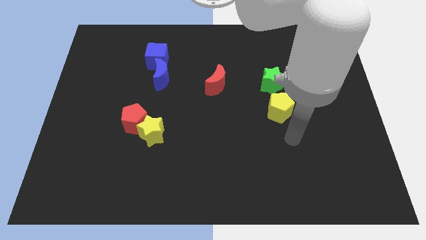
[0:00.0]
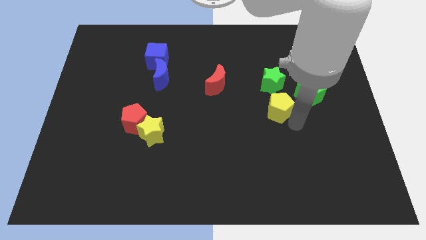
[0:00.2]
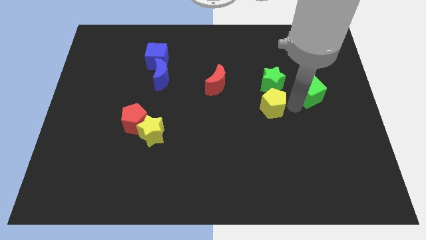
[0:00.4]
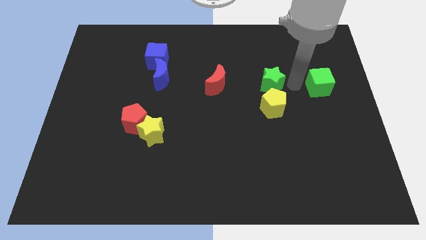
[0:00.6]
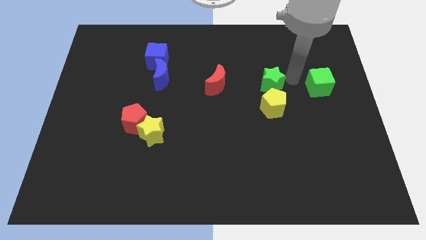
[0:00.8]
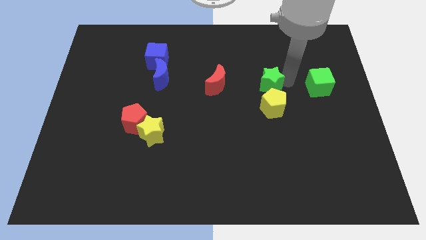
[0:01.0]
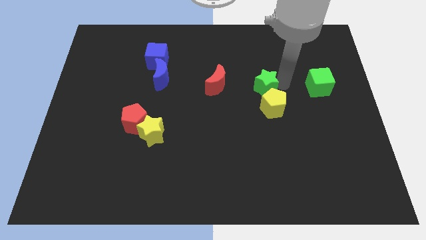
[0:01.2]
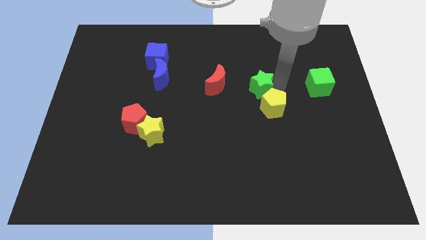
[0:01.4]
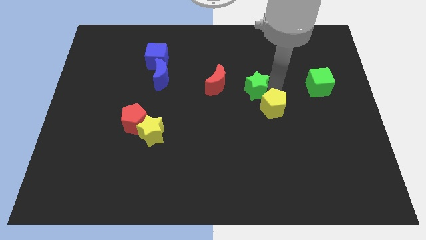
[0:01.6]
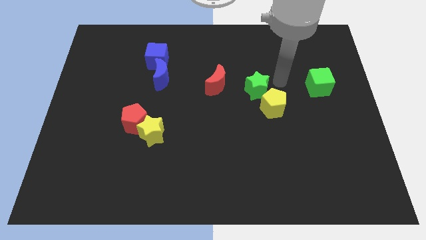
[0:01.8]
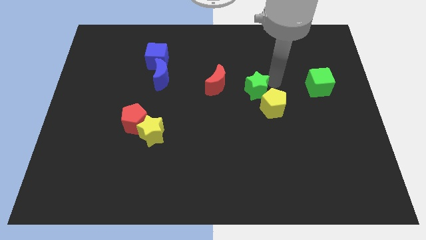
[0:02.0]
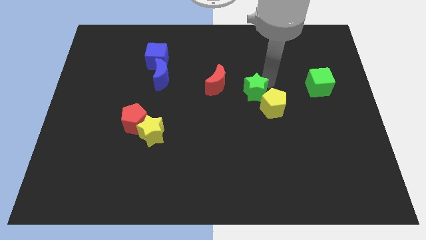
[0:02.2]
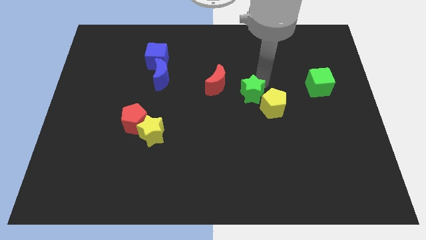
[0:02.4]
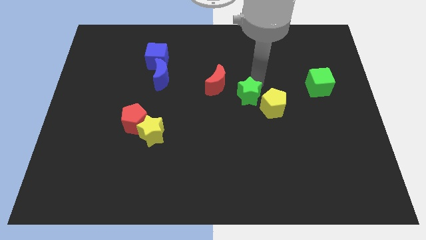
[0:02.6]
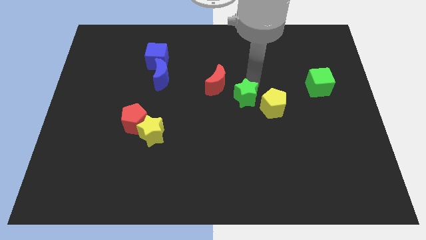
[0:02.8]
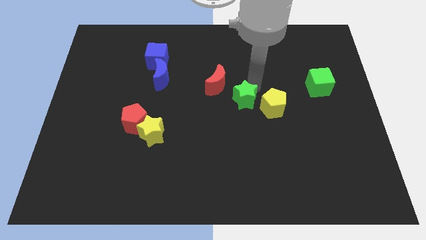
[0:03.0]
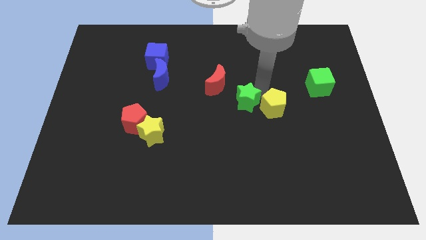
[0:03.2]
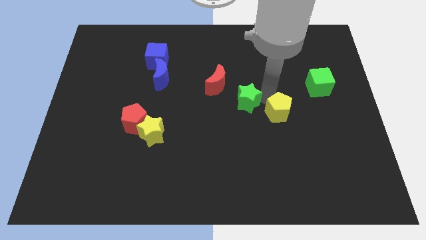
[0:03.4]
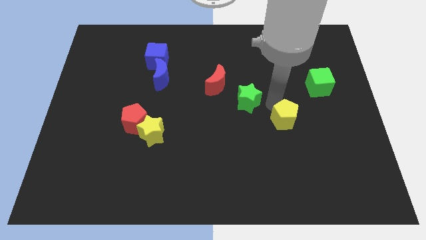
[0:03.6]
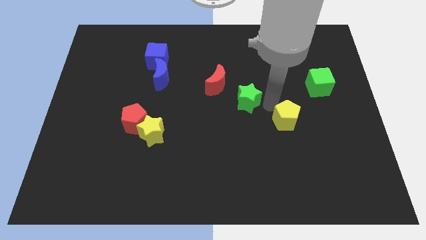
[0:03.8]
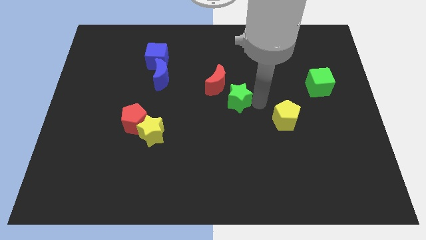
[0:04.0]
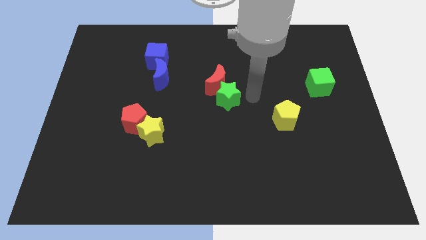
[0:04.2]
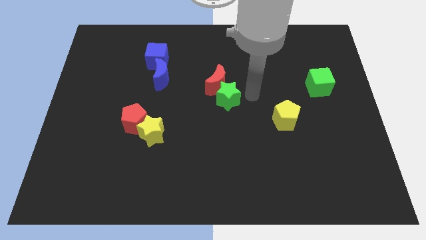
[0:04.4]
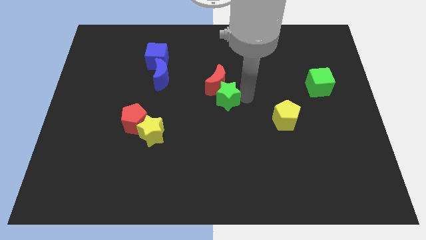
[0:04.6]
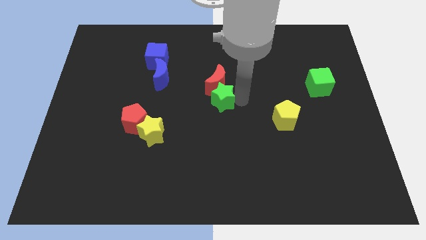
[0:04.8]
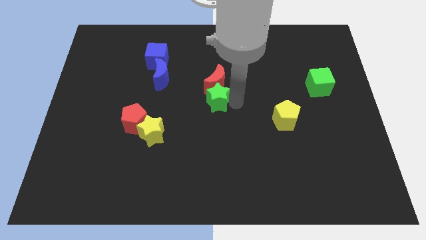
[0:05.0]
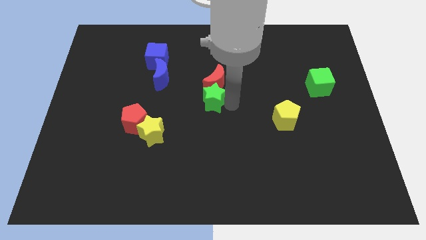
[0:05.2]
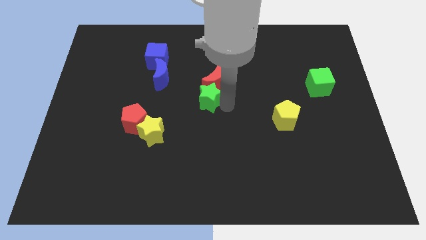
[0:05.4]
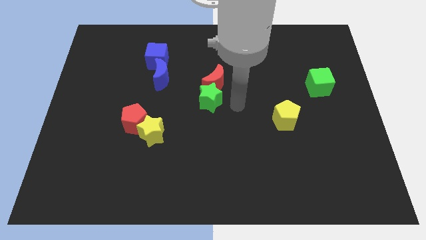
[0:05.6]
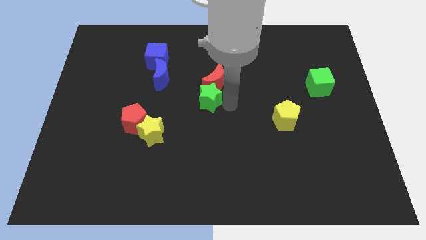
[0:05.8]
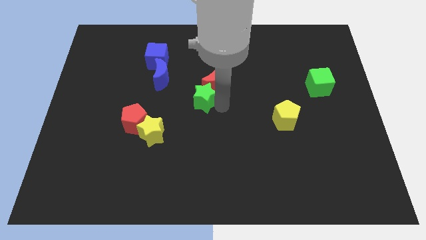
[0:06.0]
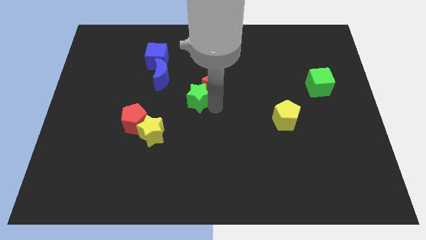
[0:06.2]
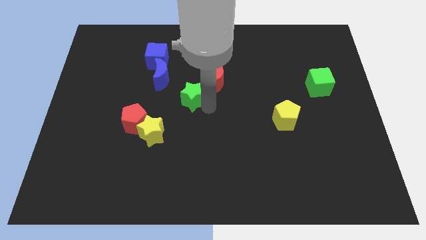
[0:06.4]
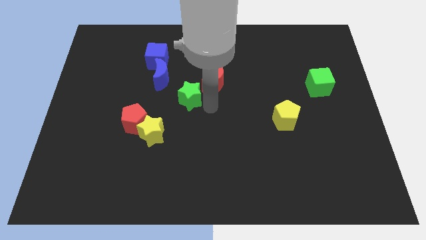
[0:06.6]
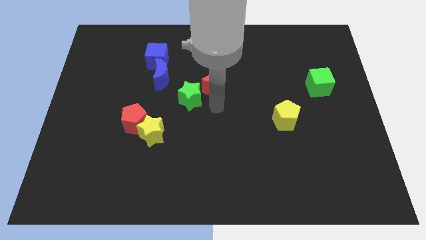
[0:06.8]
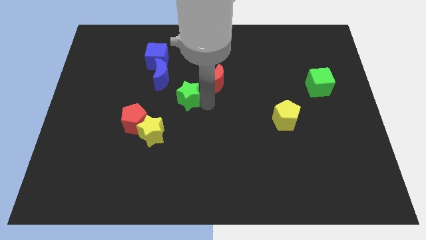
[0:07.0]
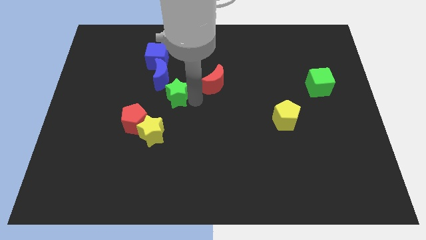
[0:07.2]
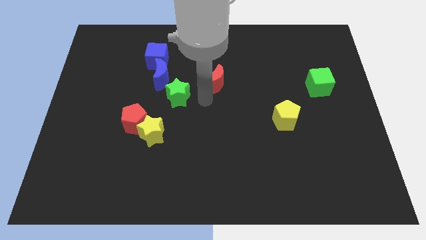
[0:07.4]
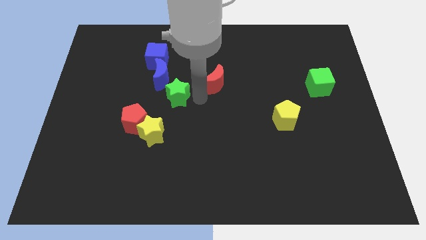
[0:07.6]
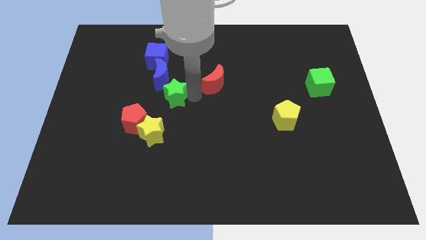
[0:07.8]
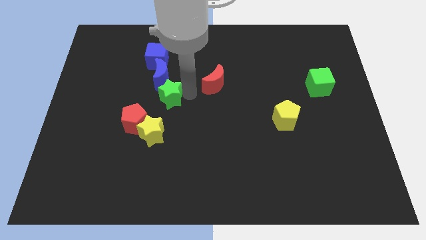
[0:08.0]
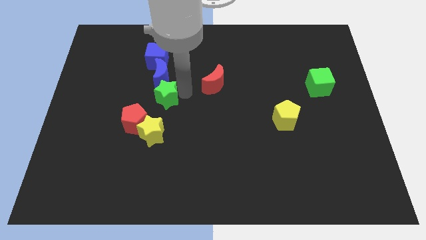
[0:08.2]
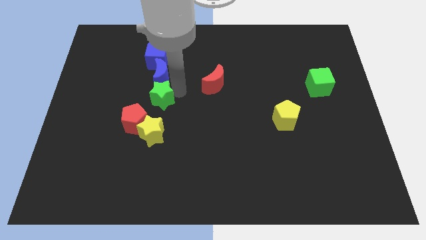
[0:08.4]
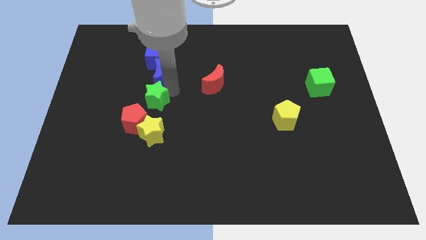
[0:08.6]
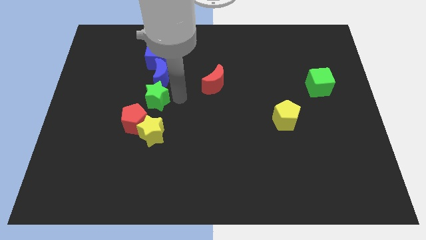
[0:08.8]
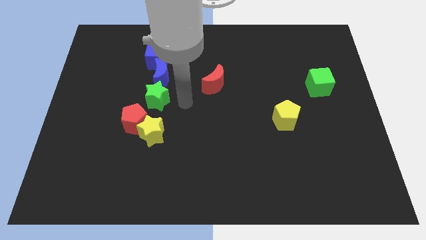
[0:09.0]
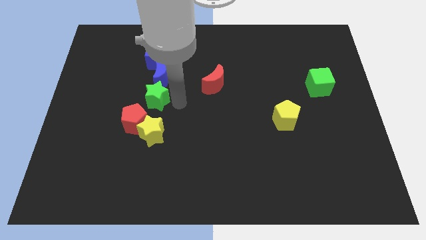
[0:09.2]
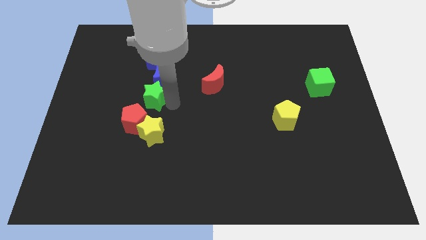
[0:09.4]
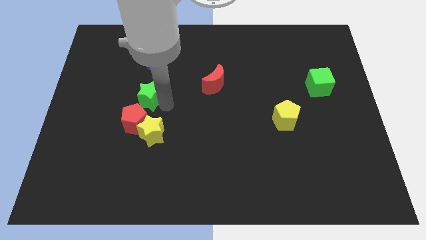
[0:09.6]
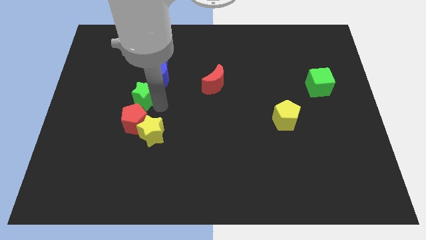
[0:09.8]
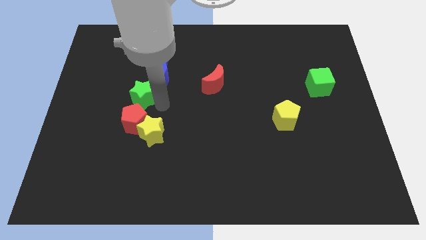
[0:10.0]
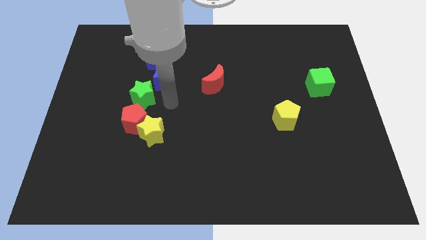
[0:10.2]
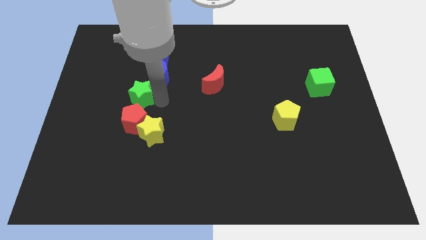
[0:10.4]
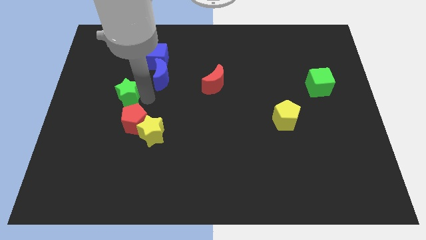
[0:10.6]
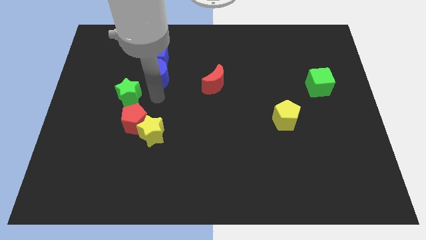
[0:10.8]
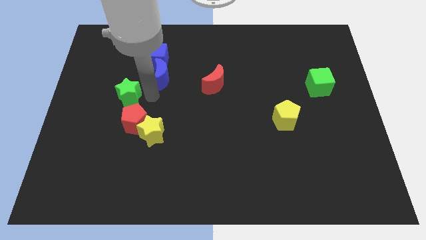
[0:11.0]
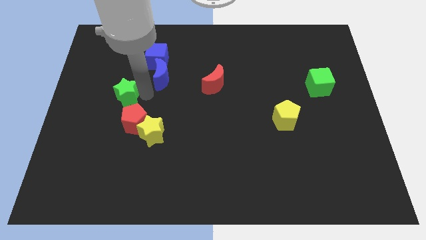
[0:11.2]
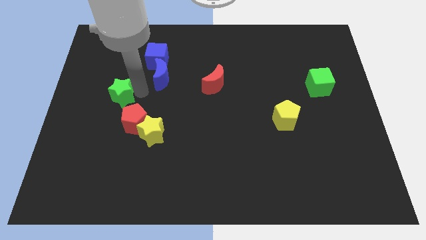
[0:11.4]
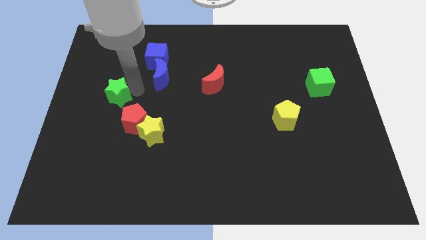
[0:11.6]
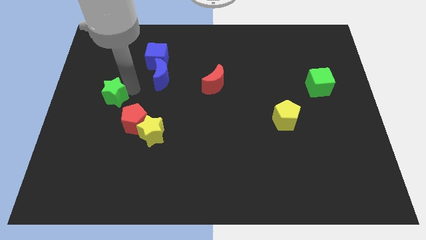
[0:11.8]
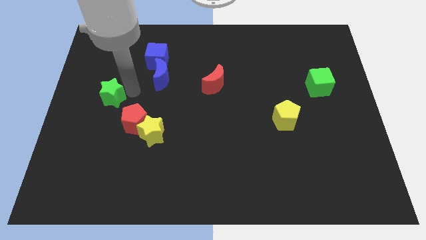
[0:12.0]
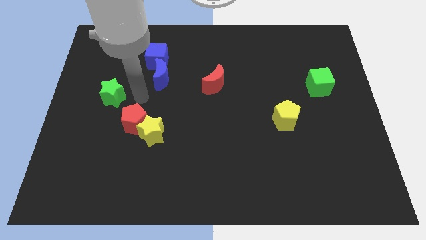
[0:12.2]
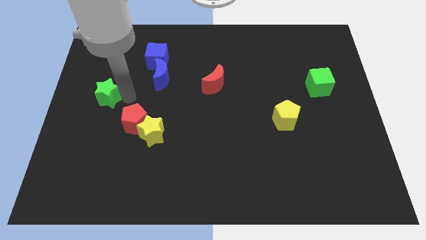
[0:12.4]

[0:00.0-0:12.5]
move the green star to the left side
